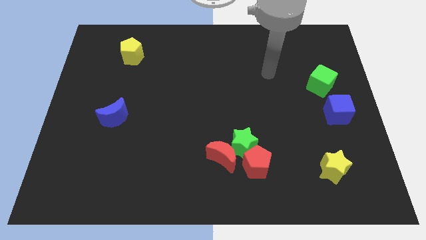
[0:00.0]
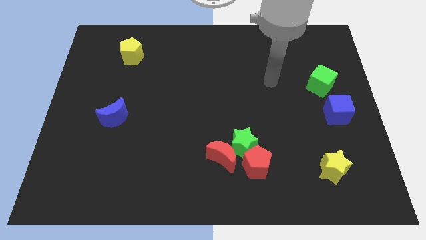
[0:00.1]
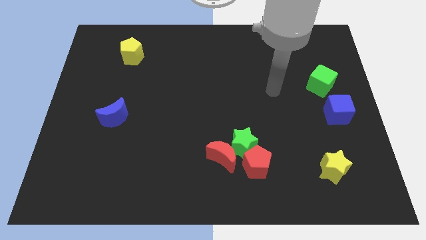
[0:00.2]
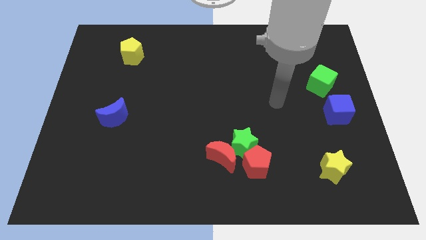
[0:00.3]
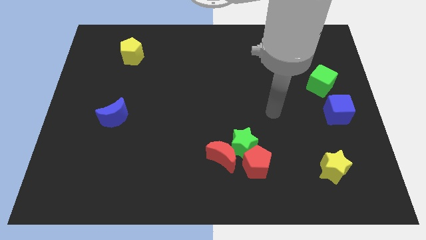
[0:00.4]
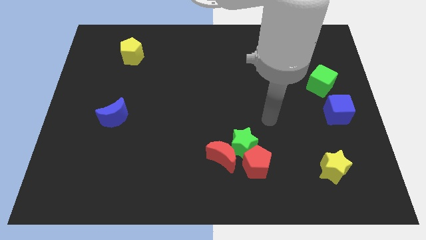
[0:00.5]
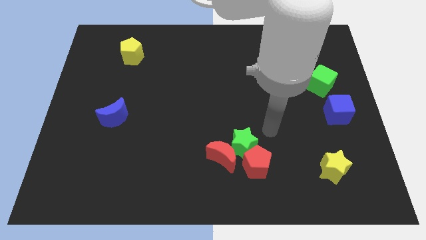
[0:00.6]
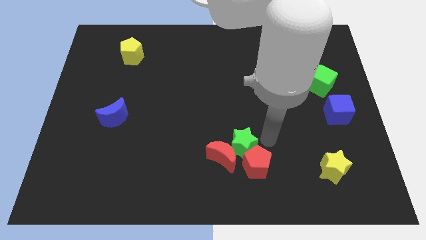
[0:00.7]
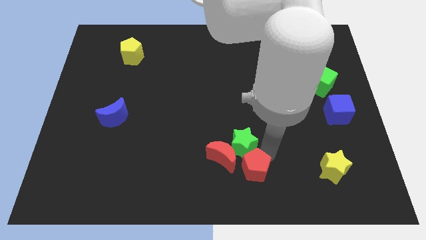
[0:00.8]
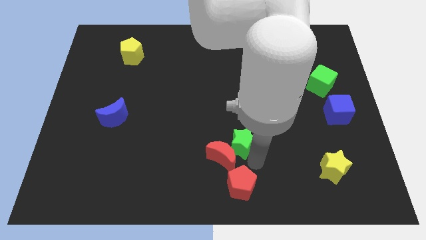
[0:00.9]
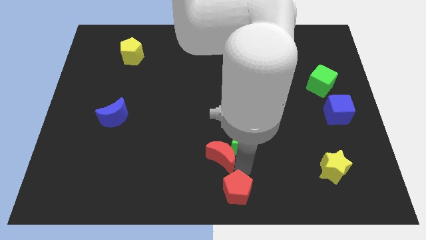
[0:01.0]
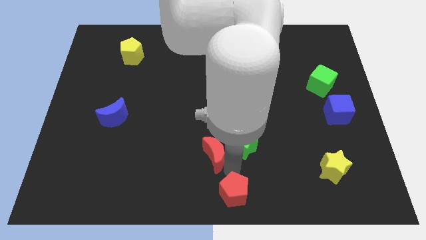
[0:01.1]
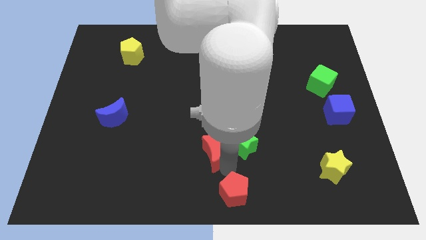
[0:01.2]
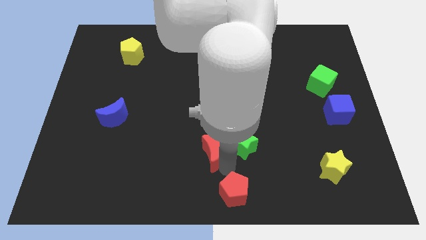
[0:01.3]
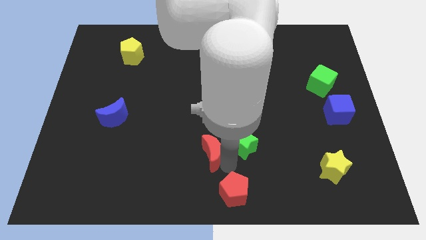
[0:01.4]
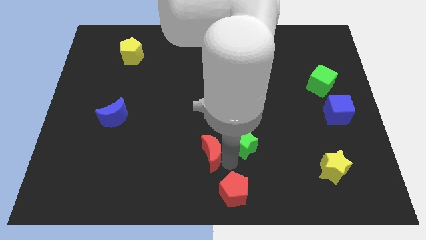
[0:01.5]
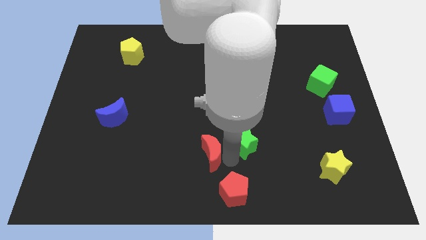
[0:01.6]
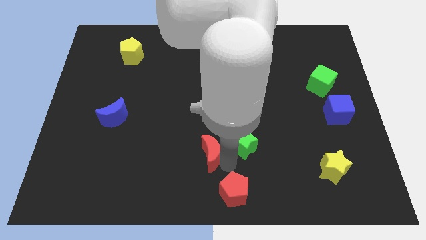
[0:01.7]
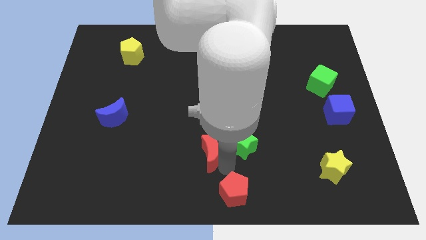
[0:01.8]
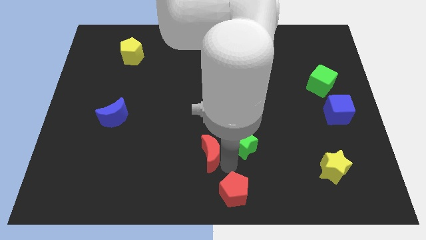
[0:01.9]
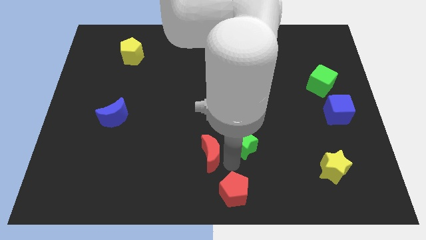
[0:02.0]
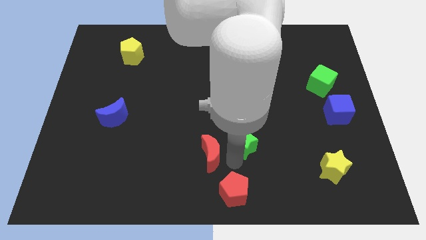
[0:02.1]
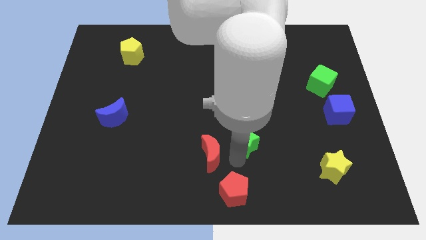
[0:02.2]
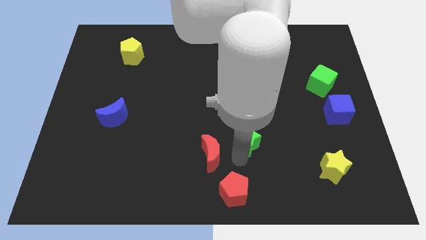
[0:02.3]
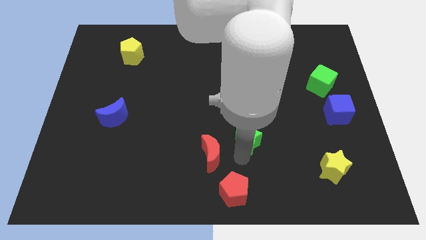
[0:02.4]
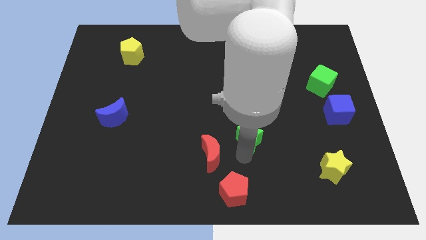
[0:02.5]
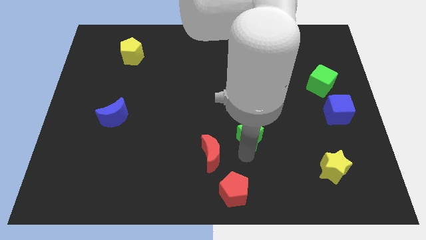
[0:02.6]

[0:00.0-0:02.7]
separate the green star from the red pentagon and red moon

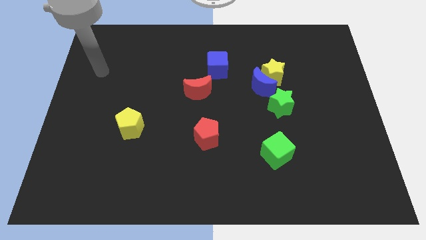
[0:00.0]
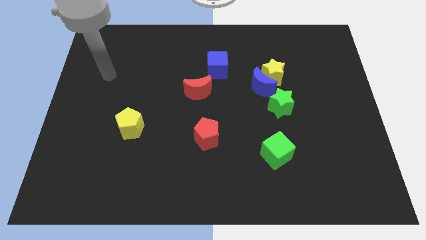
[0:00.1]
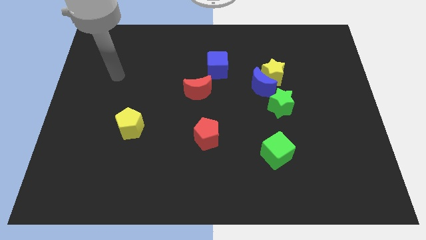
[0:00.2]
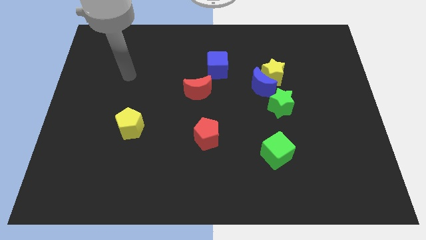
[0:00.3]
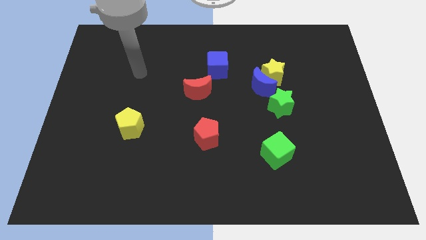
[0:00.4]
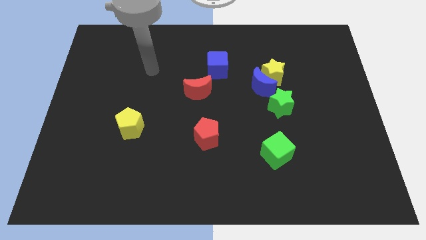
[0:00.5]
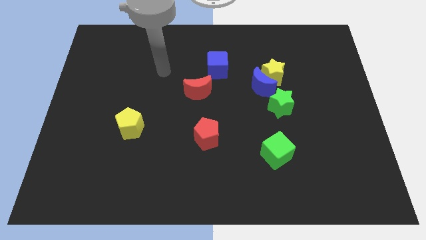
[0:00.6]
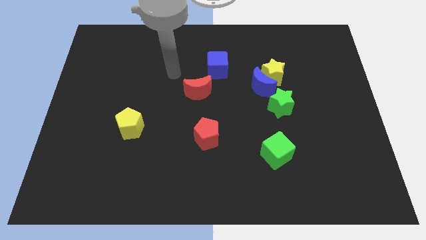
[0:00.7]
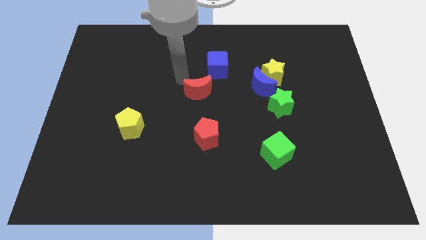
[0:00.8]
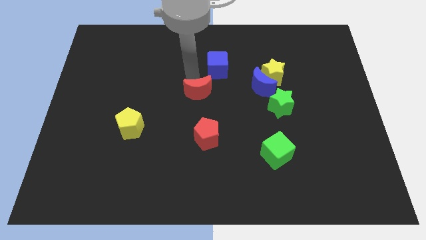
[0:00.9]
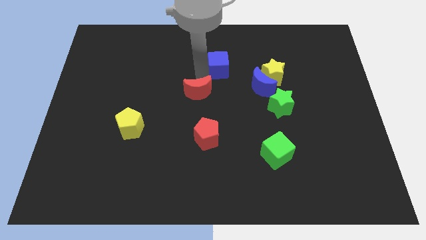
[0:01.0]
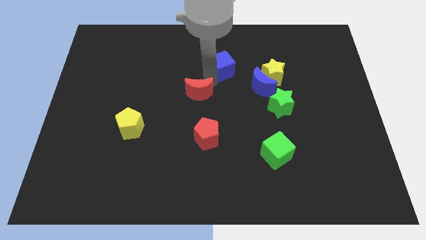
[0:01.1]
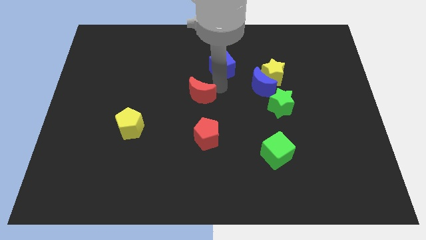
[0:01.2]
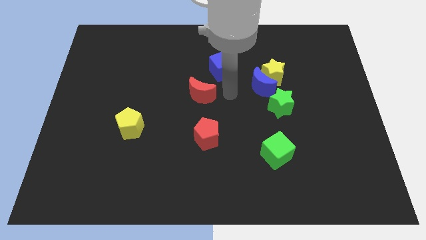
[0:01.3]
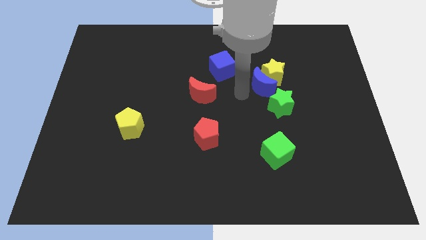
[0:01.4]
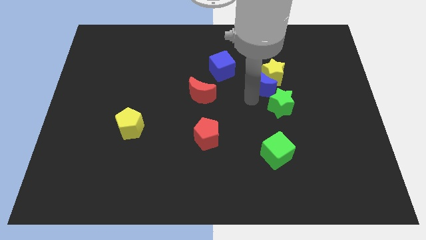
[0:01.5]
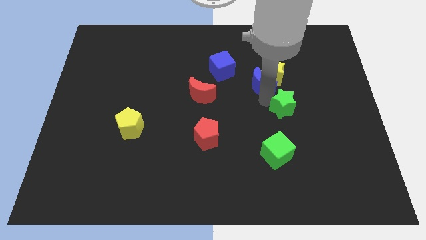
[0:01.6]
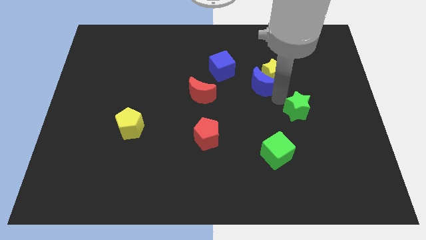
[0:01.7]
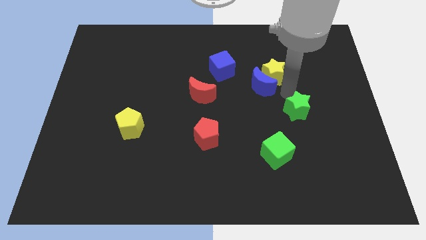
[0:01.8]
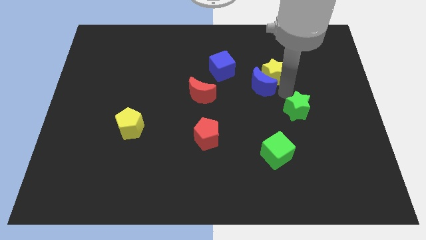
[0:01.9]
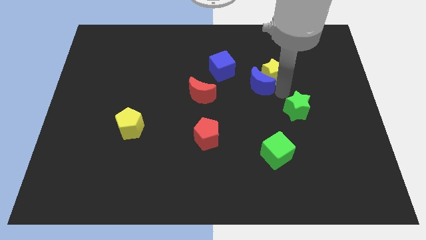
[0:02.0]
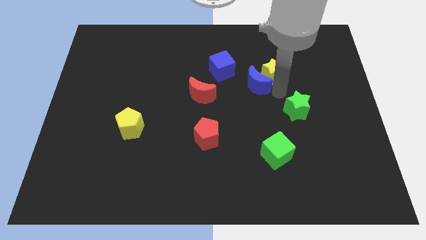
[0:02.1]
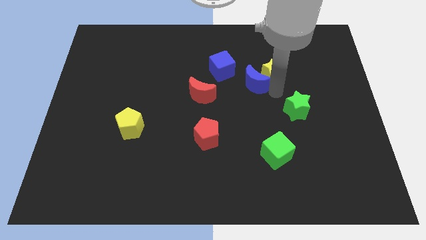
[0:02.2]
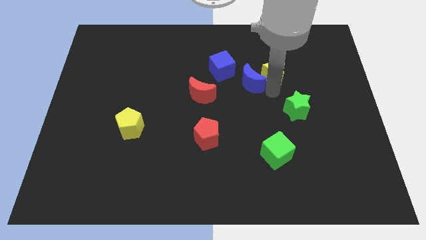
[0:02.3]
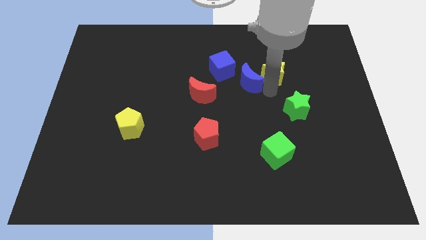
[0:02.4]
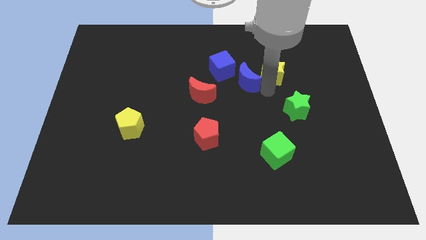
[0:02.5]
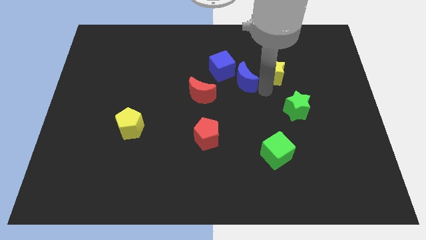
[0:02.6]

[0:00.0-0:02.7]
pull the blue moon apart from the yellow star and green star

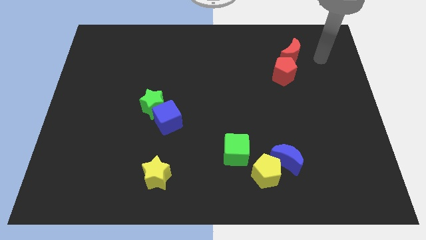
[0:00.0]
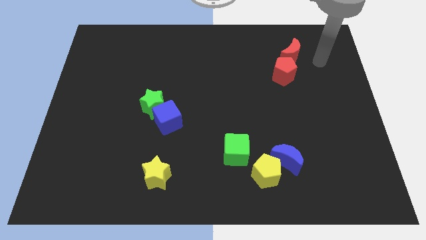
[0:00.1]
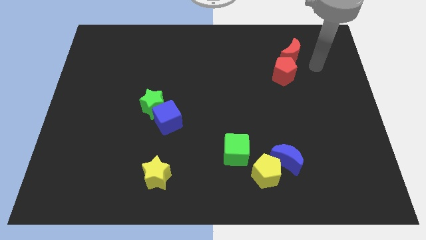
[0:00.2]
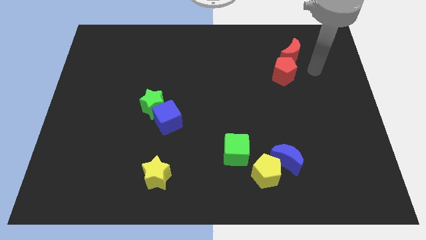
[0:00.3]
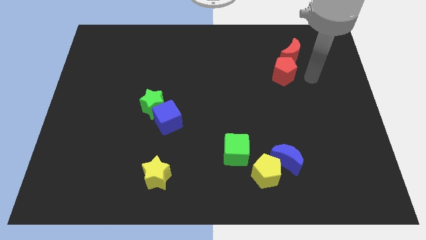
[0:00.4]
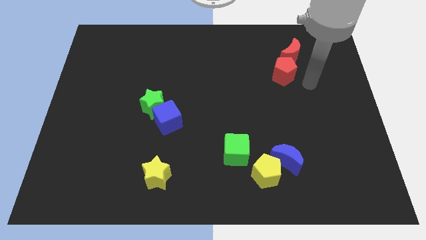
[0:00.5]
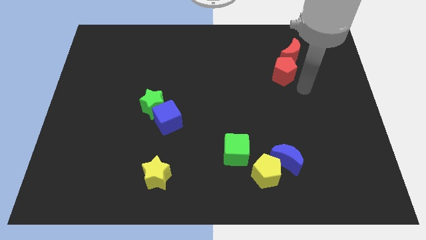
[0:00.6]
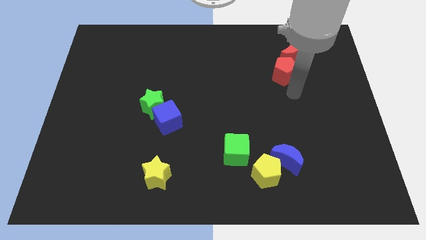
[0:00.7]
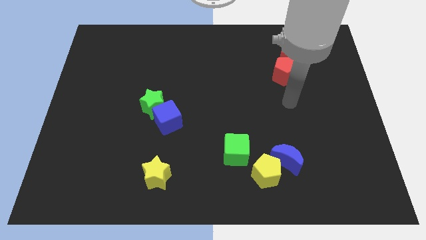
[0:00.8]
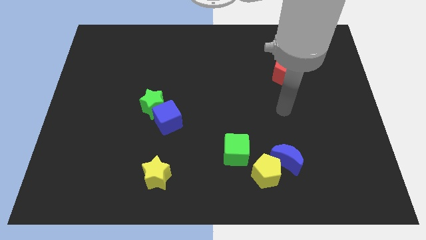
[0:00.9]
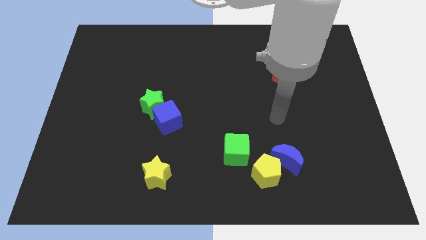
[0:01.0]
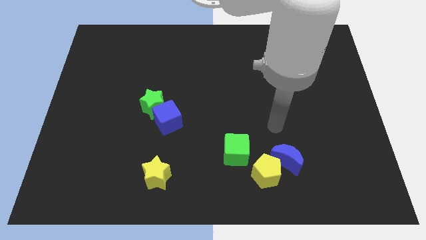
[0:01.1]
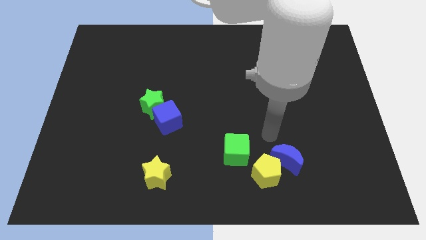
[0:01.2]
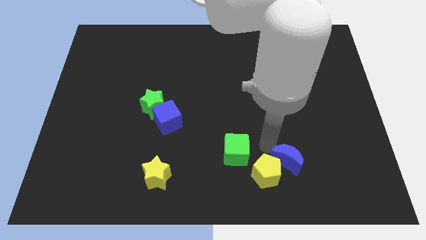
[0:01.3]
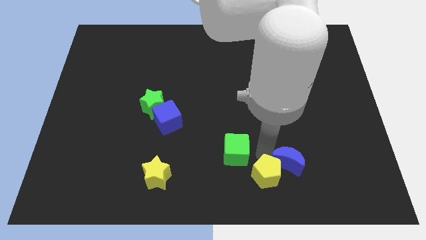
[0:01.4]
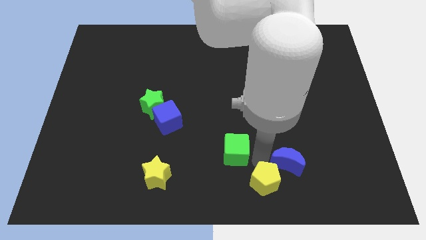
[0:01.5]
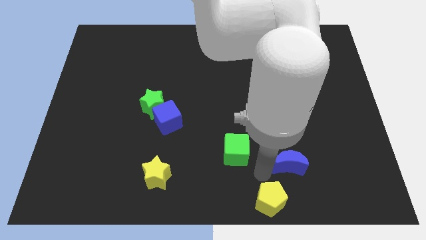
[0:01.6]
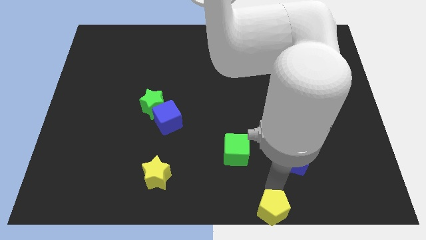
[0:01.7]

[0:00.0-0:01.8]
separate the blue moon from the yellow pentagon

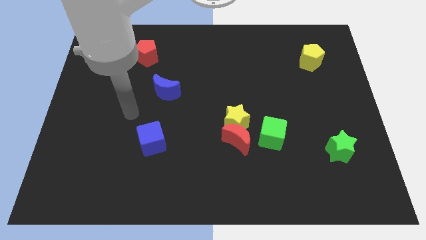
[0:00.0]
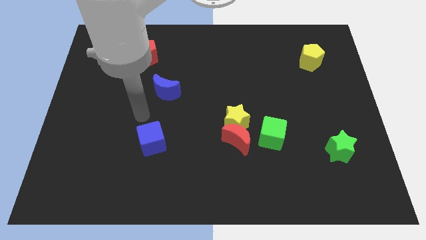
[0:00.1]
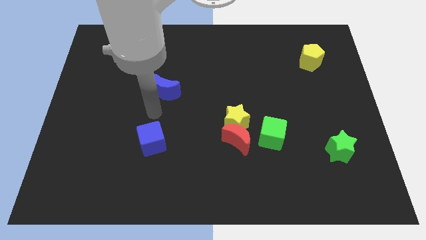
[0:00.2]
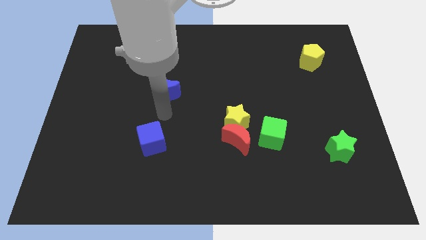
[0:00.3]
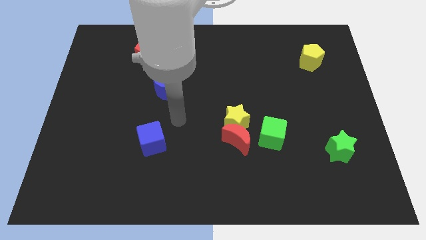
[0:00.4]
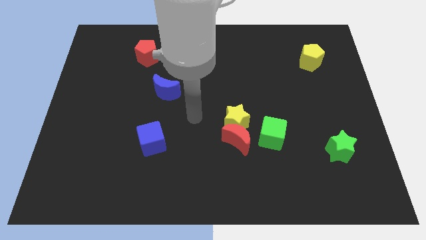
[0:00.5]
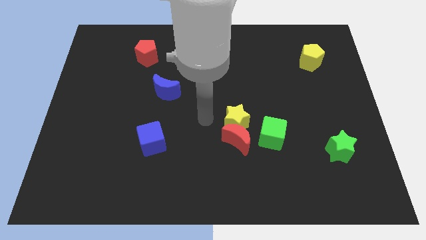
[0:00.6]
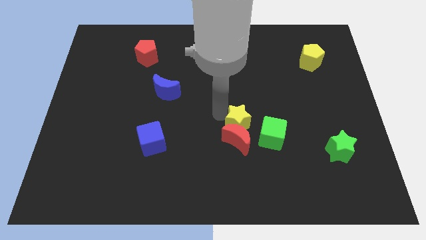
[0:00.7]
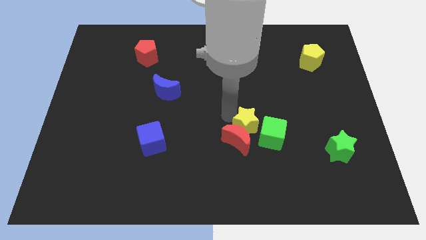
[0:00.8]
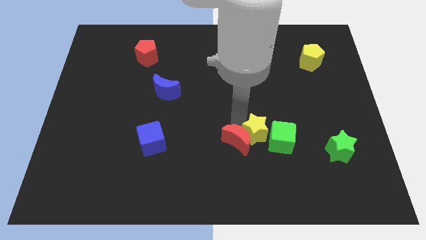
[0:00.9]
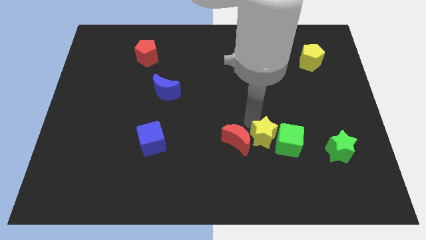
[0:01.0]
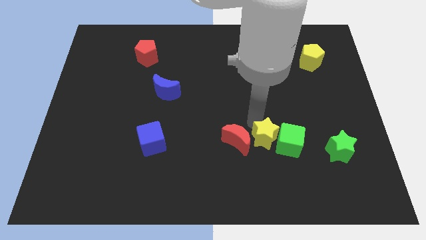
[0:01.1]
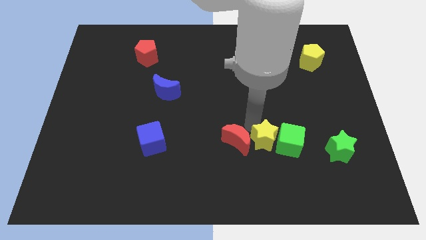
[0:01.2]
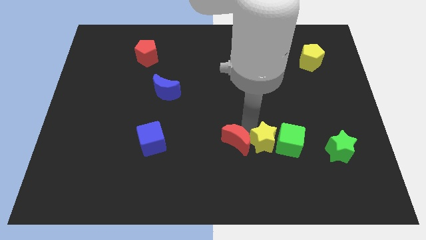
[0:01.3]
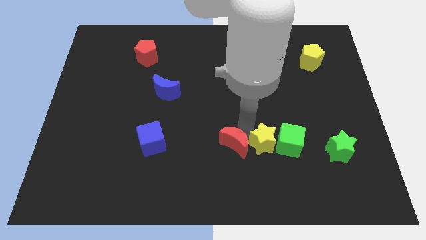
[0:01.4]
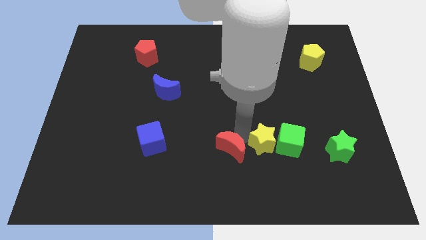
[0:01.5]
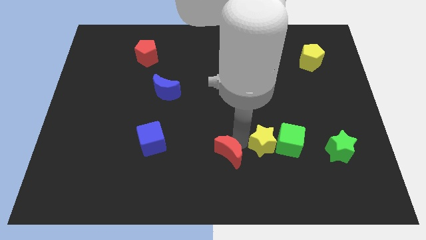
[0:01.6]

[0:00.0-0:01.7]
separate the red moon from the yellow star and green cube

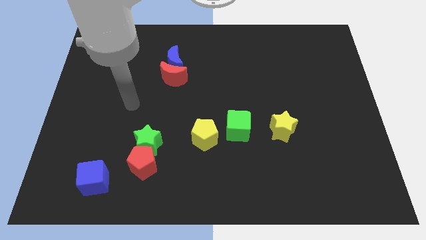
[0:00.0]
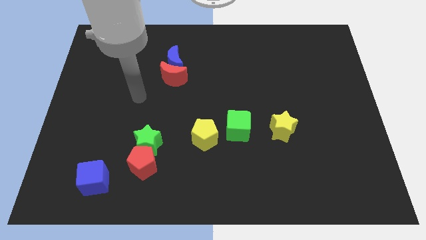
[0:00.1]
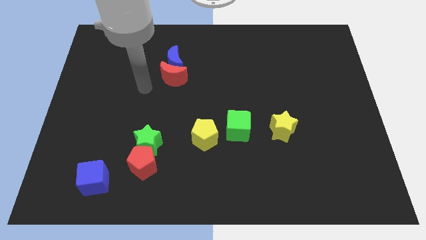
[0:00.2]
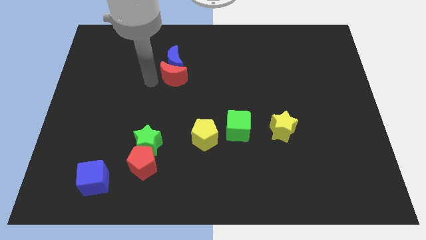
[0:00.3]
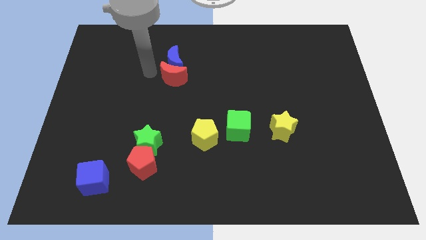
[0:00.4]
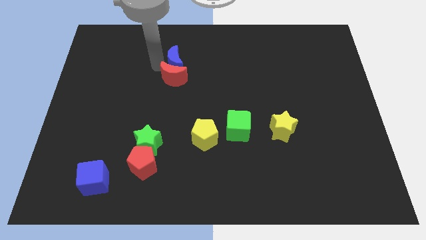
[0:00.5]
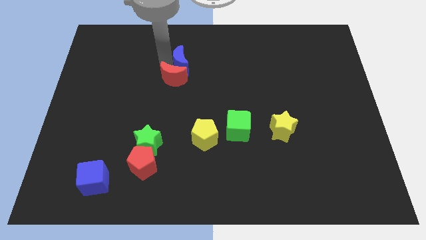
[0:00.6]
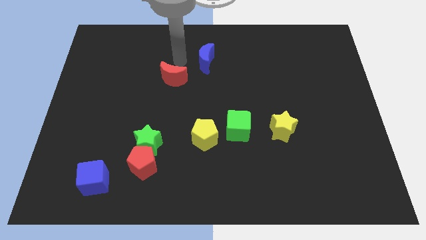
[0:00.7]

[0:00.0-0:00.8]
pull the red moon apart from the blue moon
